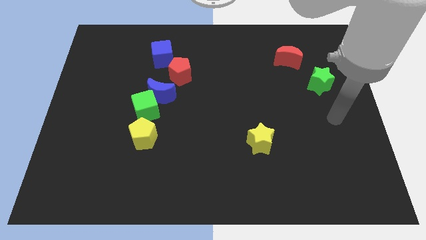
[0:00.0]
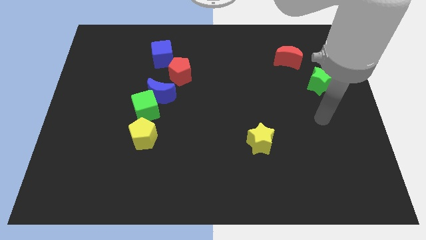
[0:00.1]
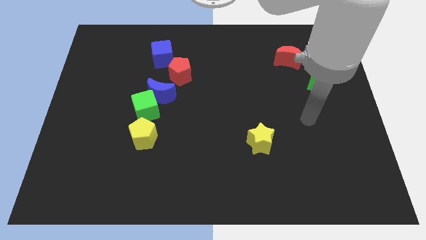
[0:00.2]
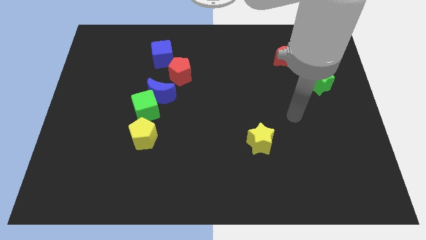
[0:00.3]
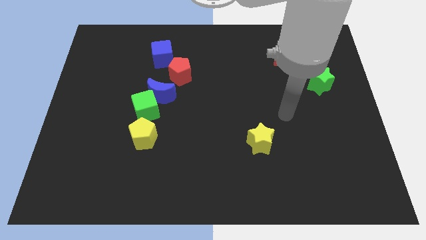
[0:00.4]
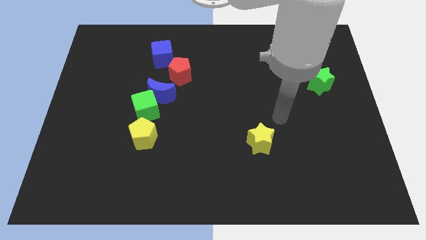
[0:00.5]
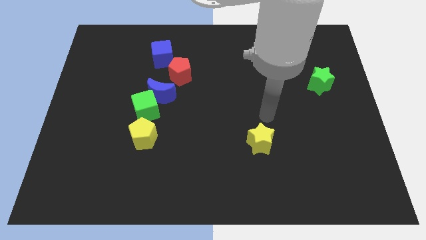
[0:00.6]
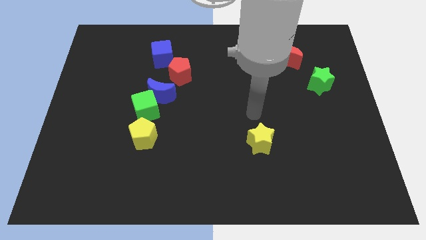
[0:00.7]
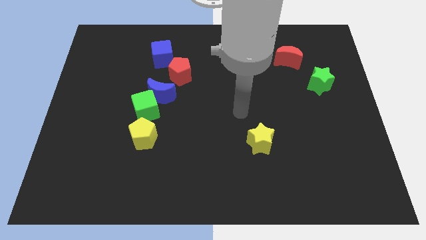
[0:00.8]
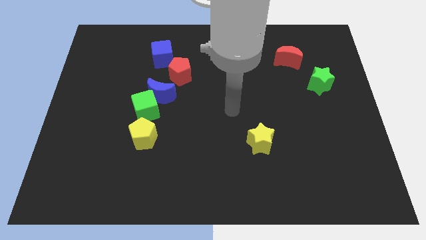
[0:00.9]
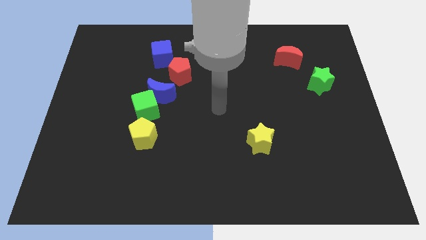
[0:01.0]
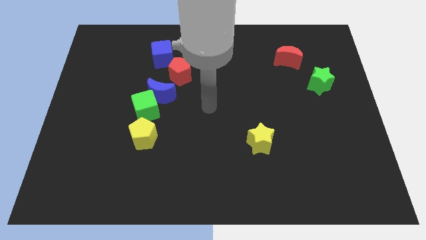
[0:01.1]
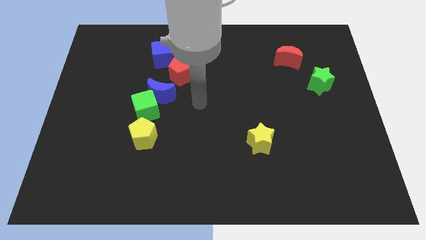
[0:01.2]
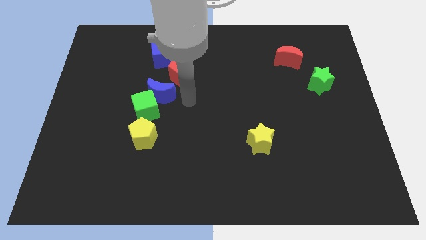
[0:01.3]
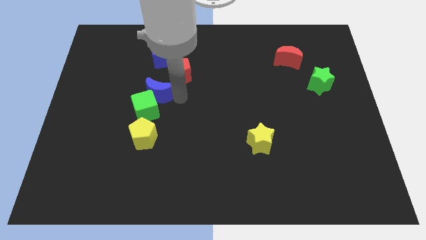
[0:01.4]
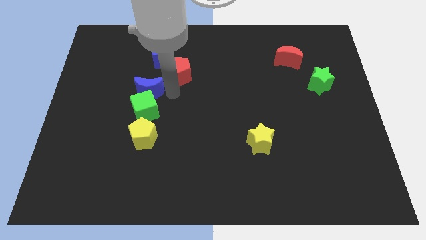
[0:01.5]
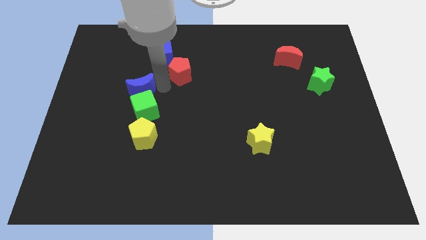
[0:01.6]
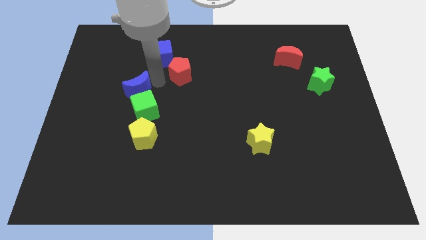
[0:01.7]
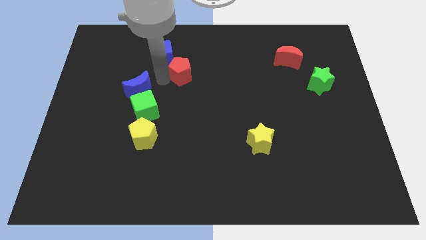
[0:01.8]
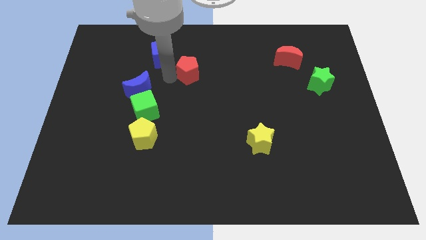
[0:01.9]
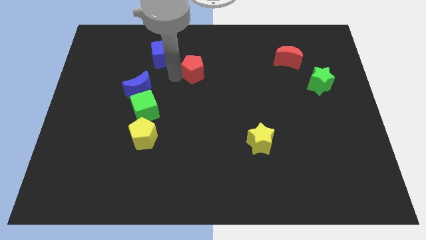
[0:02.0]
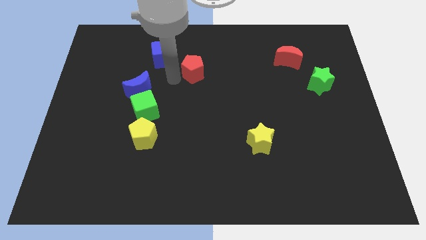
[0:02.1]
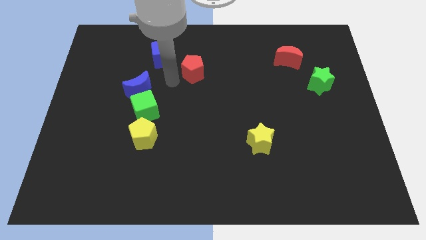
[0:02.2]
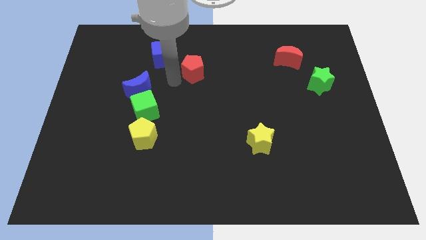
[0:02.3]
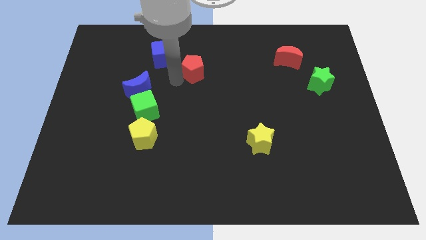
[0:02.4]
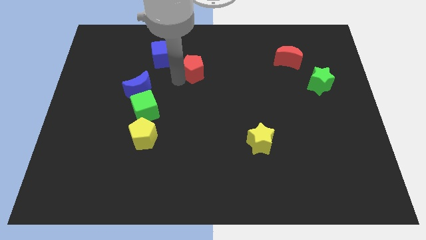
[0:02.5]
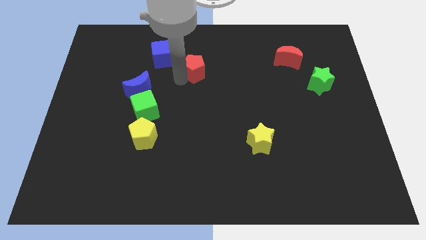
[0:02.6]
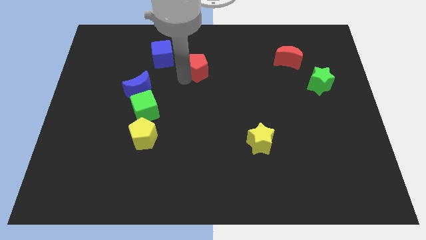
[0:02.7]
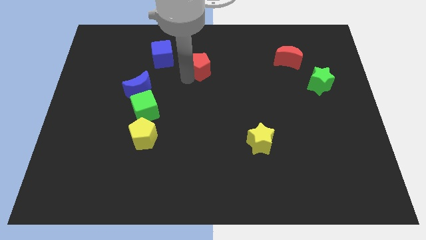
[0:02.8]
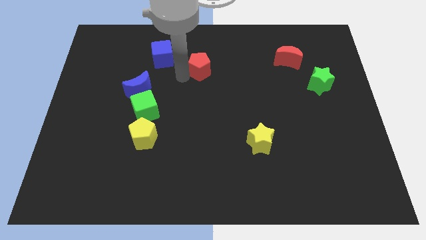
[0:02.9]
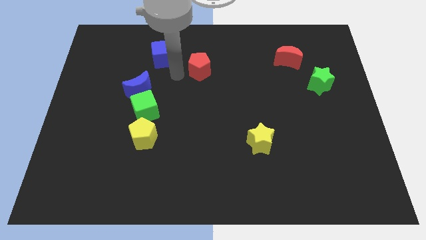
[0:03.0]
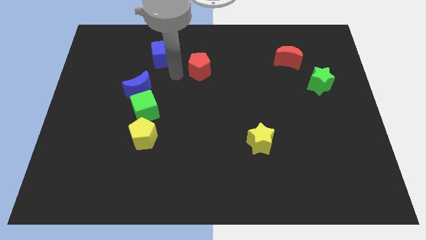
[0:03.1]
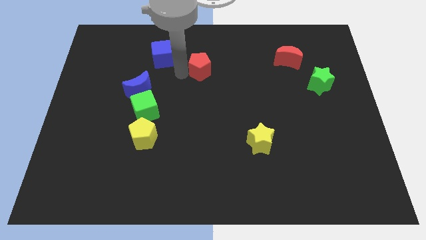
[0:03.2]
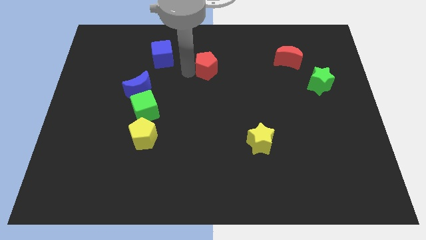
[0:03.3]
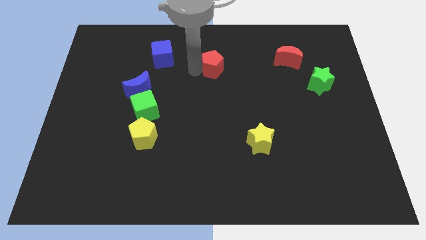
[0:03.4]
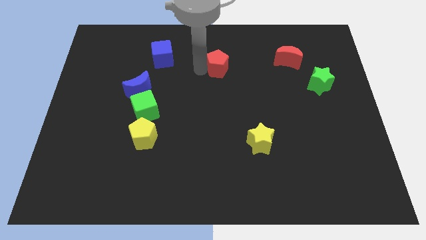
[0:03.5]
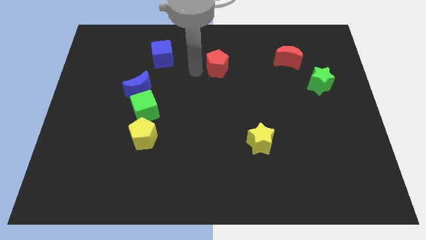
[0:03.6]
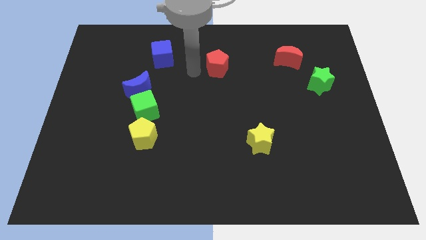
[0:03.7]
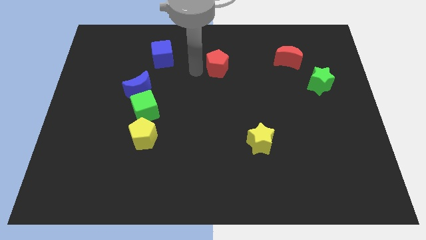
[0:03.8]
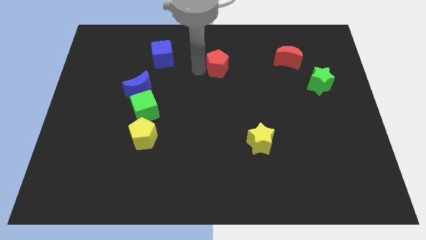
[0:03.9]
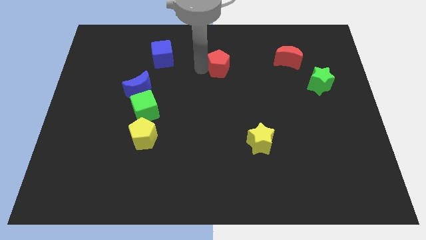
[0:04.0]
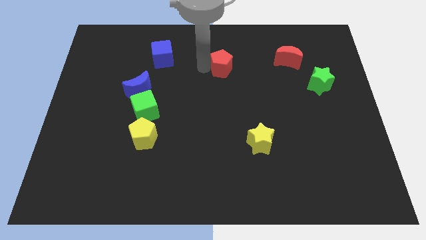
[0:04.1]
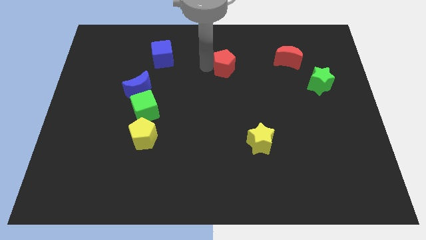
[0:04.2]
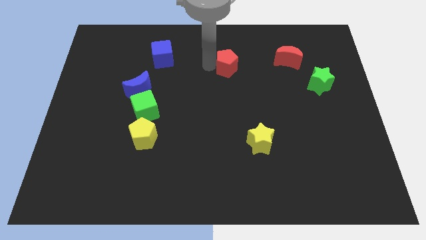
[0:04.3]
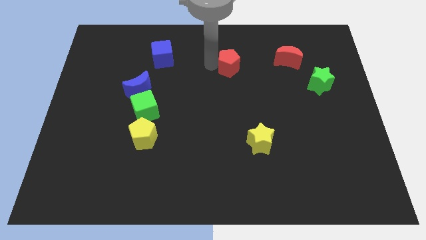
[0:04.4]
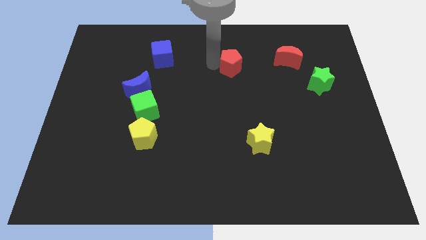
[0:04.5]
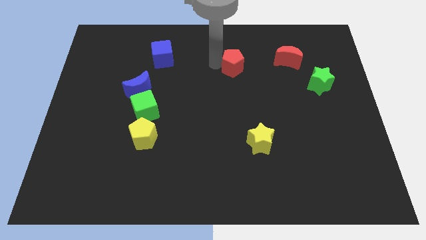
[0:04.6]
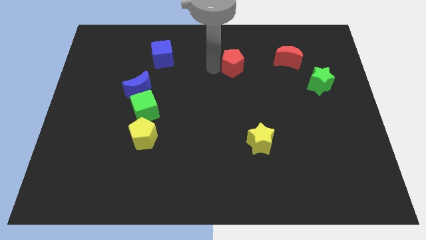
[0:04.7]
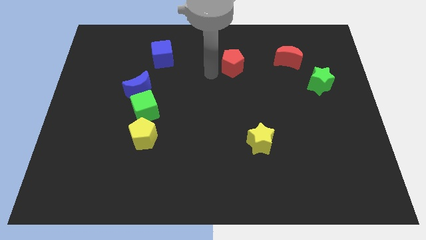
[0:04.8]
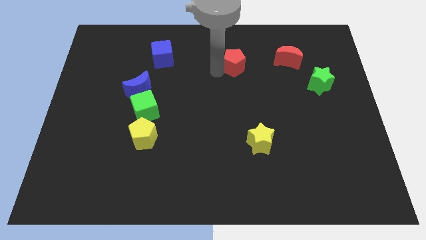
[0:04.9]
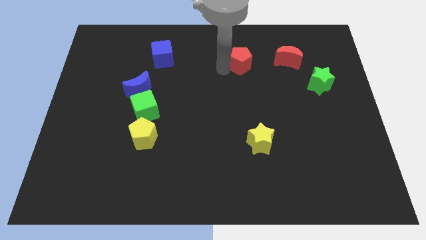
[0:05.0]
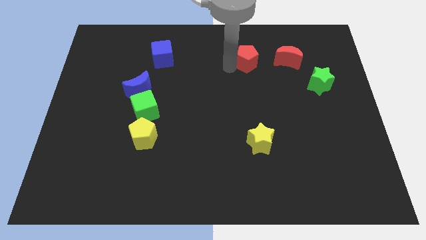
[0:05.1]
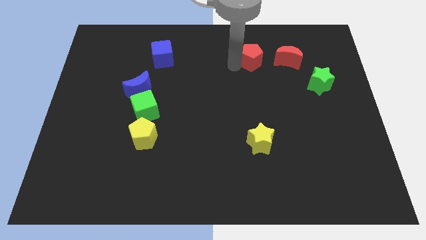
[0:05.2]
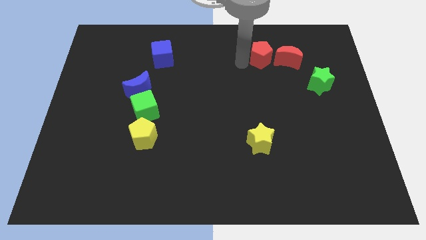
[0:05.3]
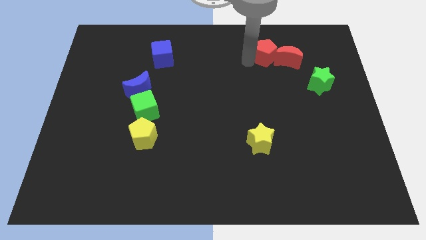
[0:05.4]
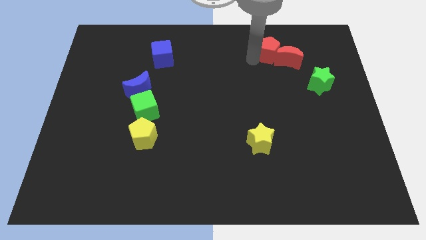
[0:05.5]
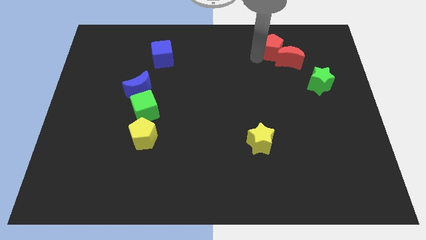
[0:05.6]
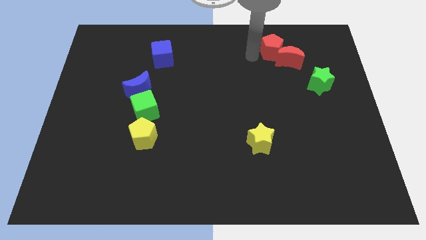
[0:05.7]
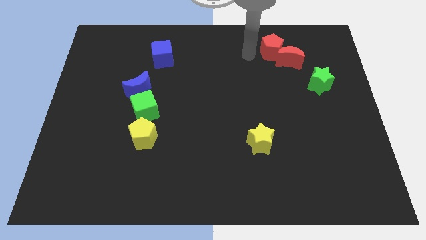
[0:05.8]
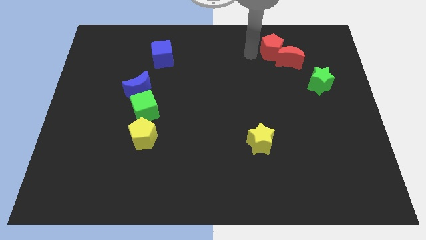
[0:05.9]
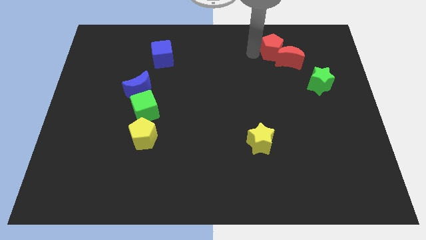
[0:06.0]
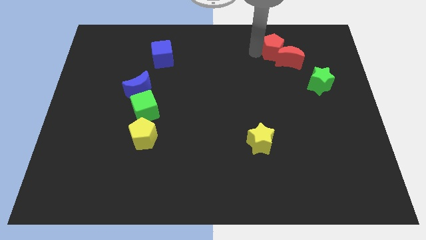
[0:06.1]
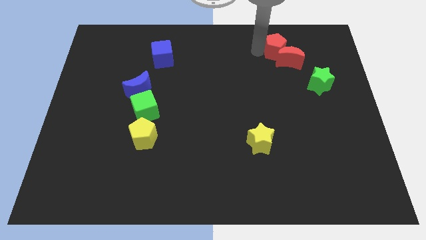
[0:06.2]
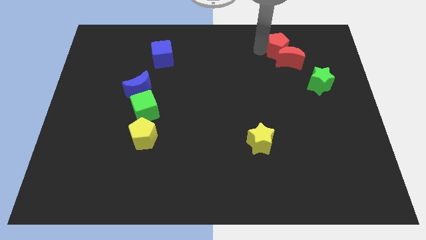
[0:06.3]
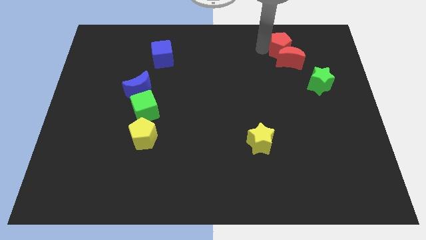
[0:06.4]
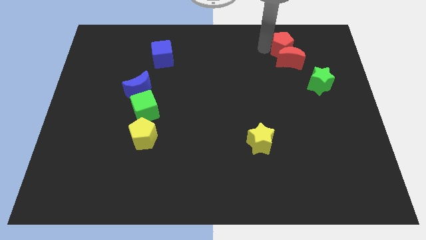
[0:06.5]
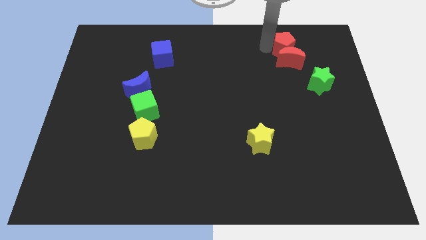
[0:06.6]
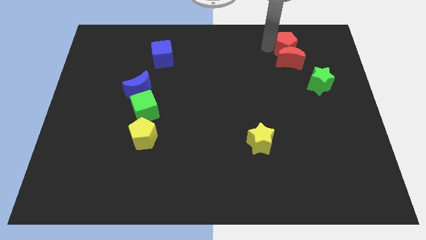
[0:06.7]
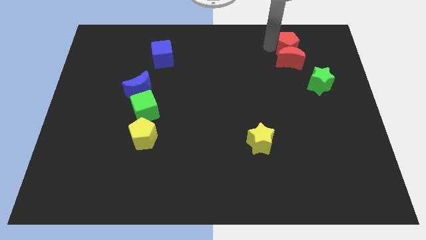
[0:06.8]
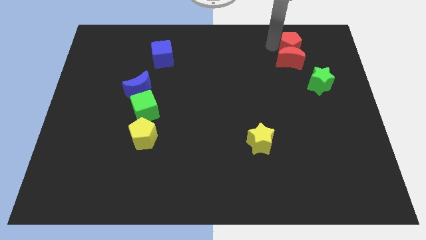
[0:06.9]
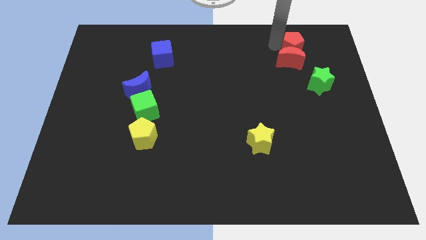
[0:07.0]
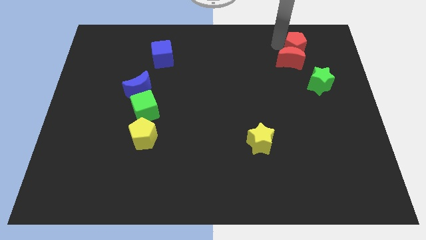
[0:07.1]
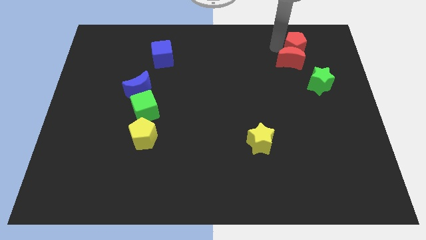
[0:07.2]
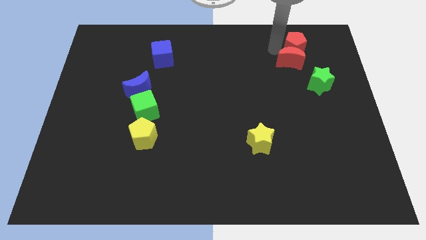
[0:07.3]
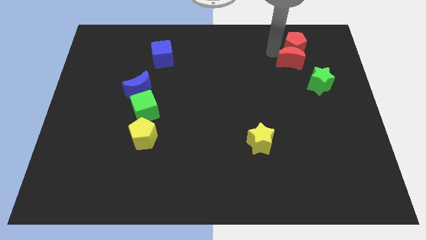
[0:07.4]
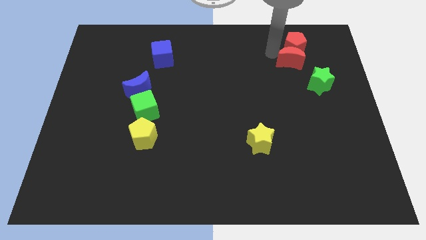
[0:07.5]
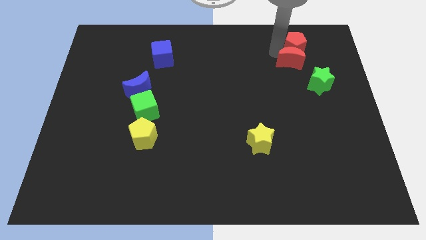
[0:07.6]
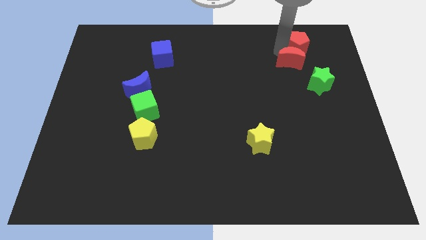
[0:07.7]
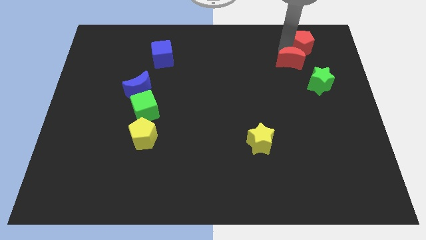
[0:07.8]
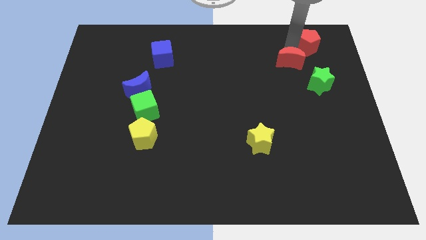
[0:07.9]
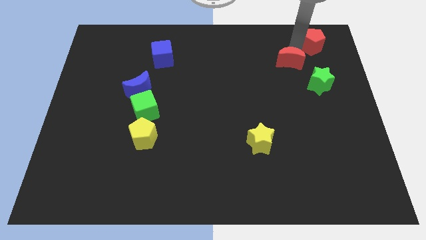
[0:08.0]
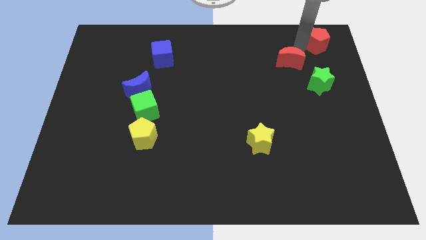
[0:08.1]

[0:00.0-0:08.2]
slide the red pentagon to the top right of the board
